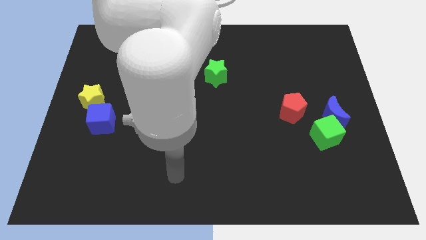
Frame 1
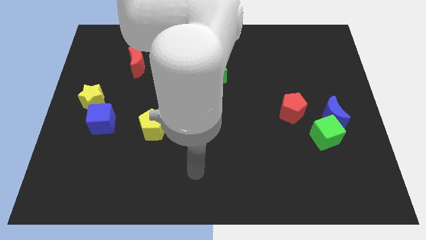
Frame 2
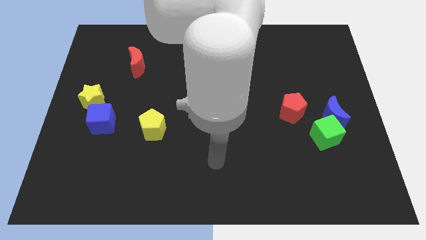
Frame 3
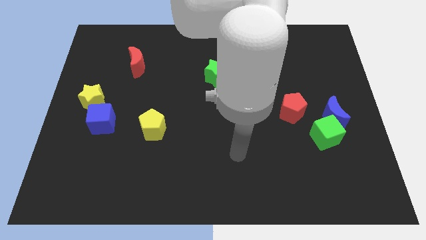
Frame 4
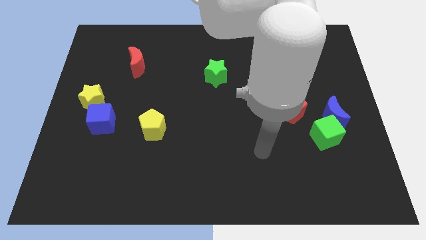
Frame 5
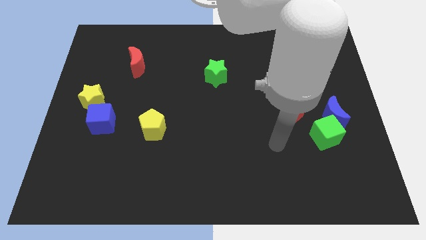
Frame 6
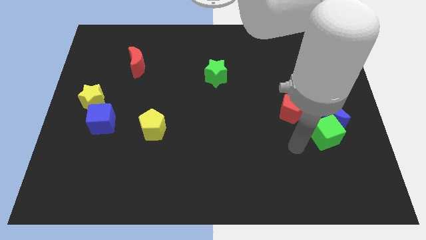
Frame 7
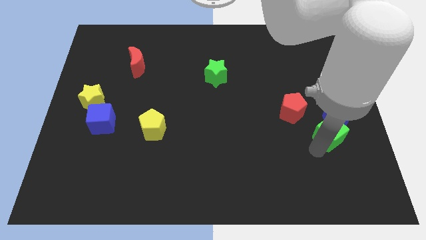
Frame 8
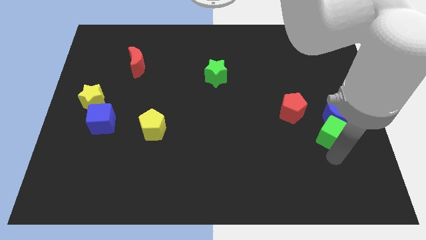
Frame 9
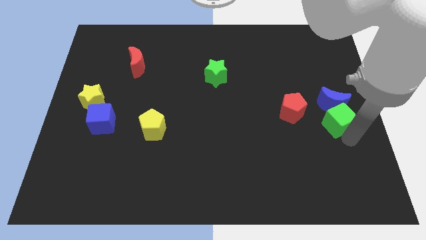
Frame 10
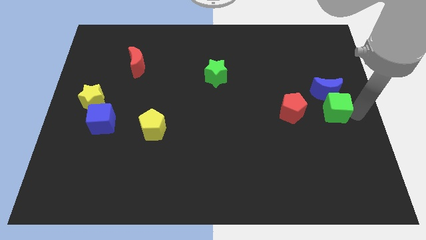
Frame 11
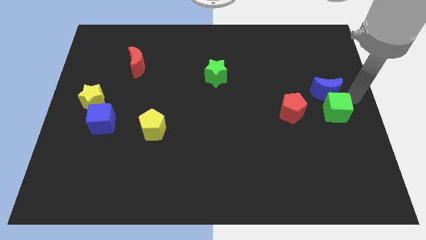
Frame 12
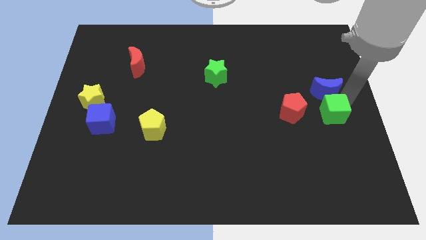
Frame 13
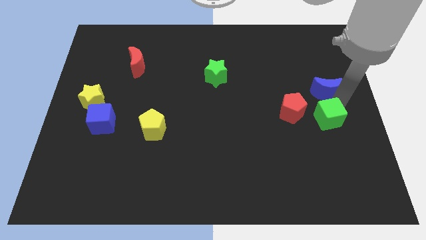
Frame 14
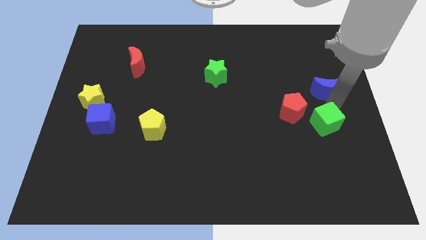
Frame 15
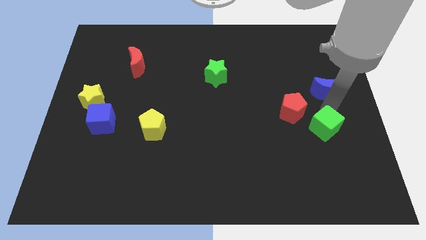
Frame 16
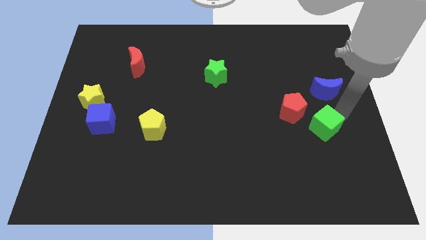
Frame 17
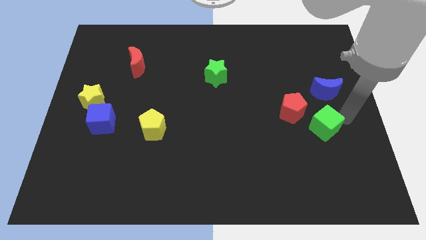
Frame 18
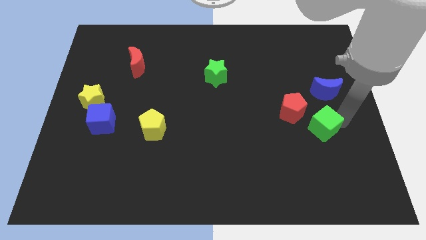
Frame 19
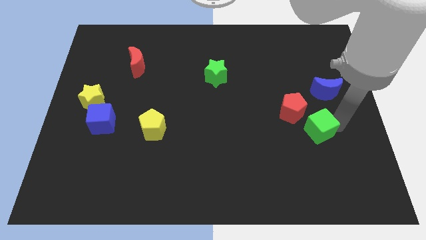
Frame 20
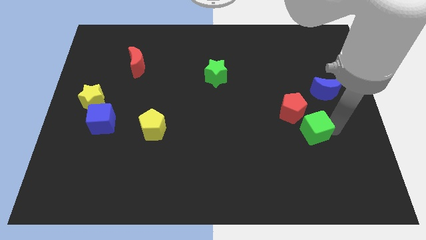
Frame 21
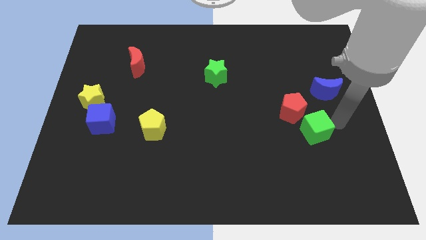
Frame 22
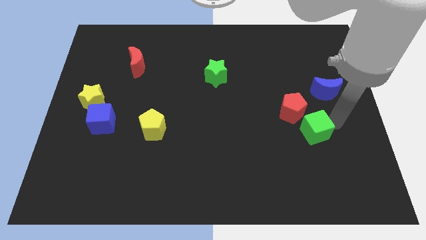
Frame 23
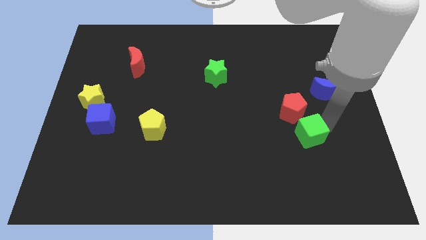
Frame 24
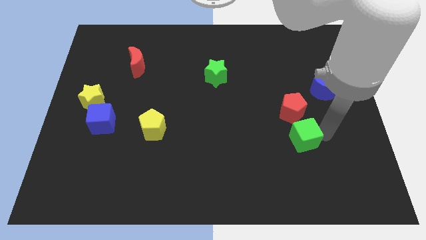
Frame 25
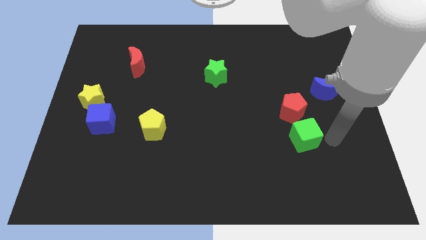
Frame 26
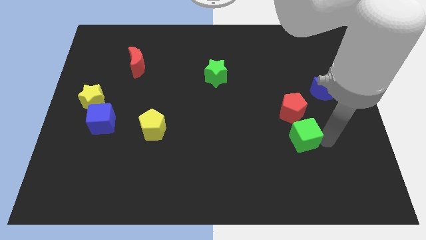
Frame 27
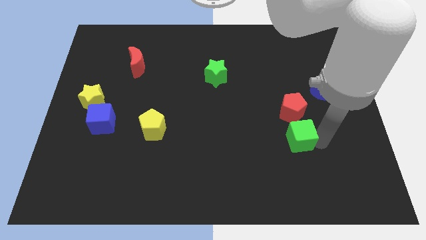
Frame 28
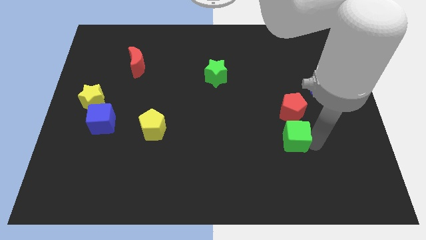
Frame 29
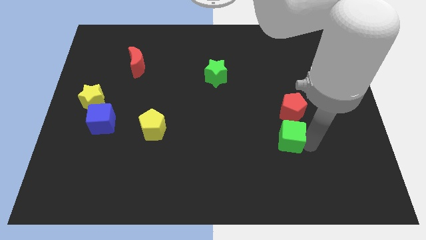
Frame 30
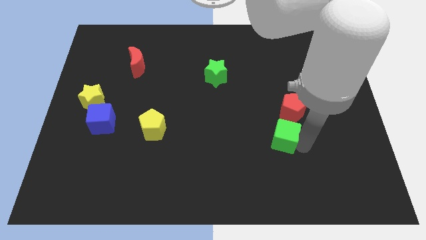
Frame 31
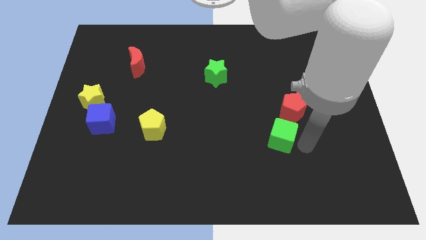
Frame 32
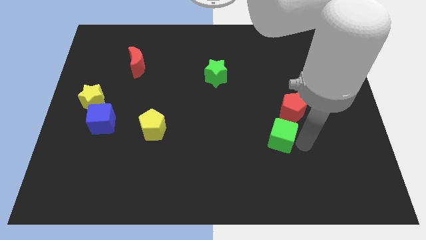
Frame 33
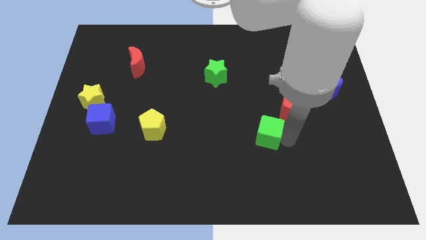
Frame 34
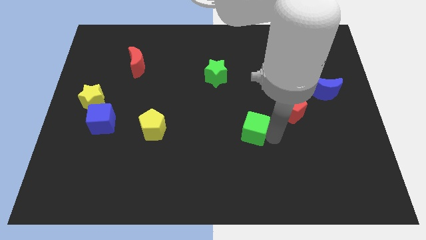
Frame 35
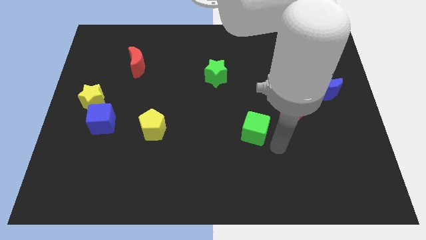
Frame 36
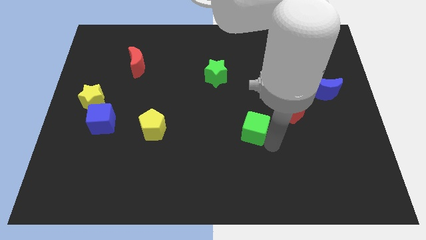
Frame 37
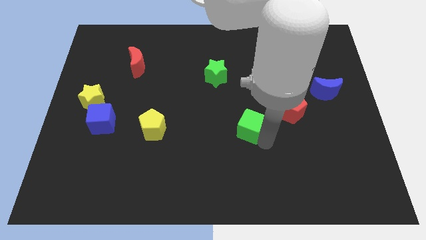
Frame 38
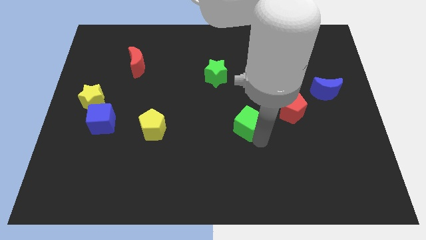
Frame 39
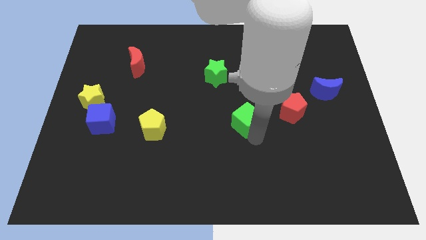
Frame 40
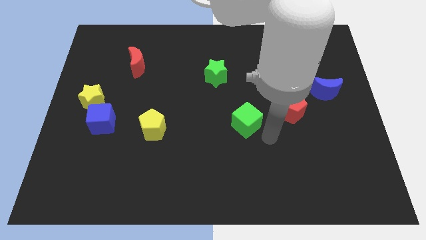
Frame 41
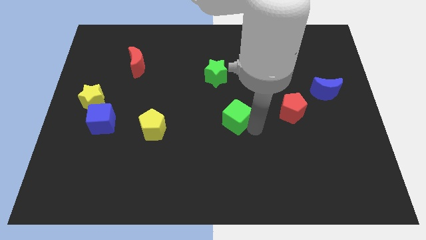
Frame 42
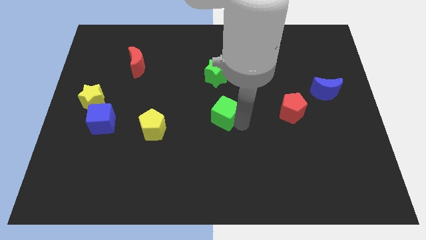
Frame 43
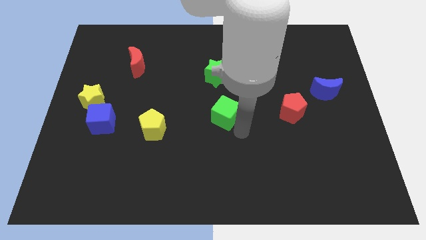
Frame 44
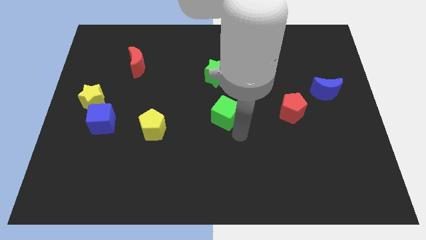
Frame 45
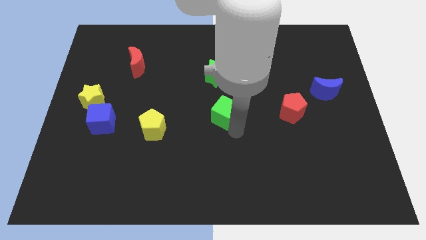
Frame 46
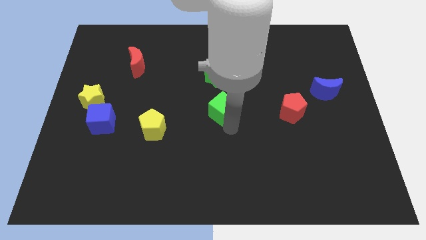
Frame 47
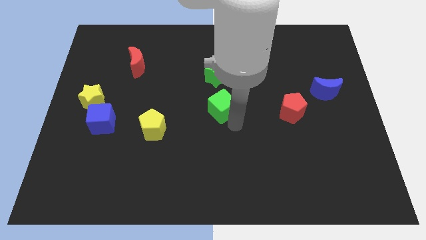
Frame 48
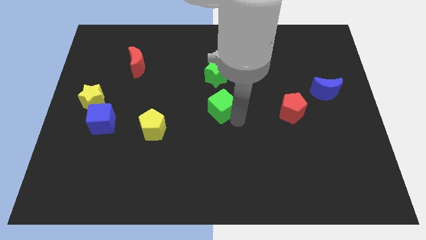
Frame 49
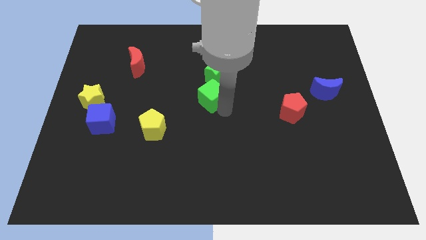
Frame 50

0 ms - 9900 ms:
move the green cube to the bottom left side of the green star

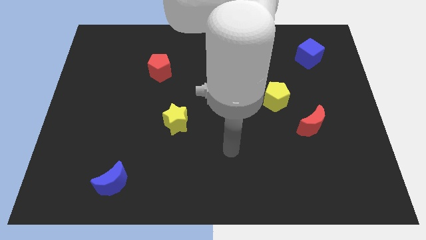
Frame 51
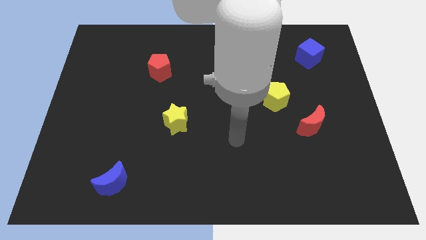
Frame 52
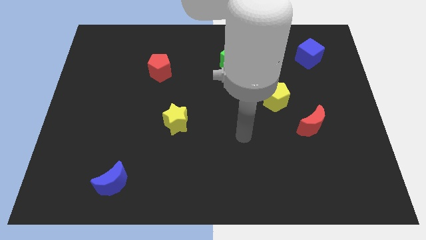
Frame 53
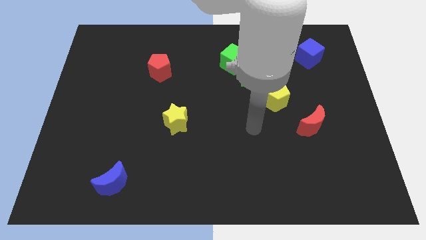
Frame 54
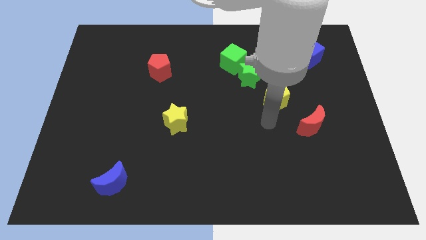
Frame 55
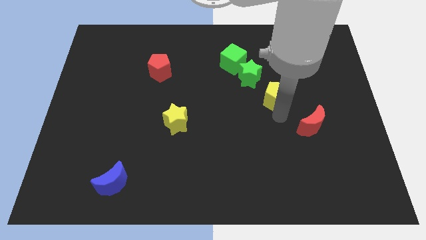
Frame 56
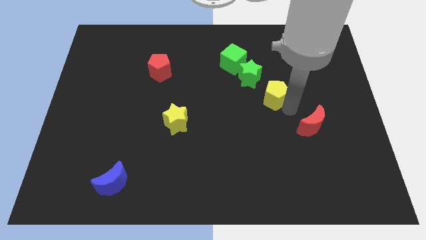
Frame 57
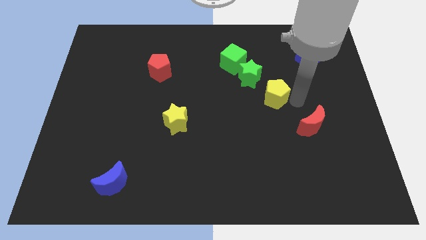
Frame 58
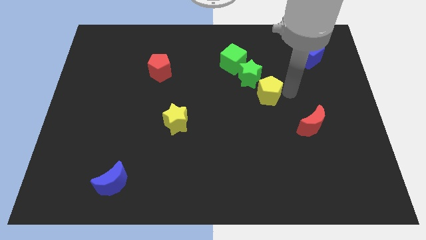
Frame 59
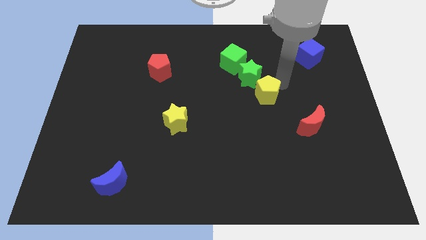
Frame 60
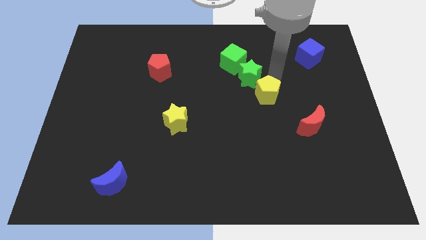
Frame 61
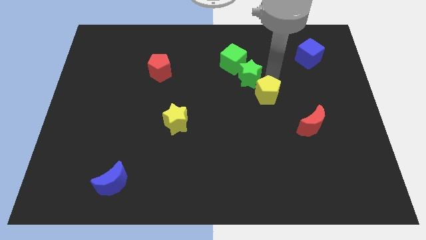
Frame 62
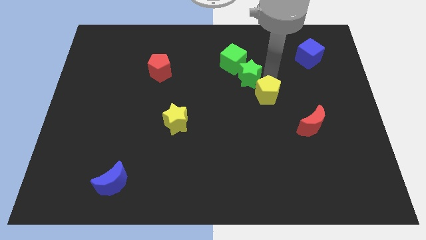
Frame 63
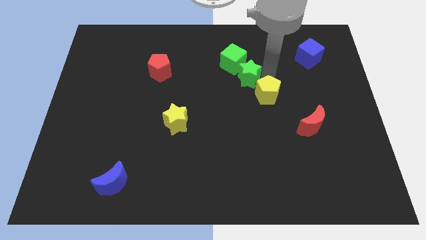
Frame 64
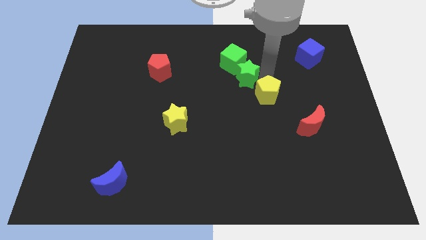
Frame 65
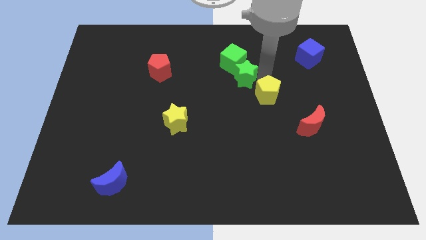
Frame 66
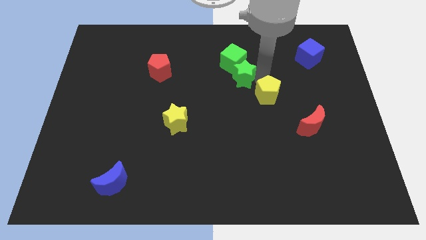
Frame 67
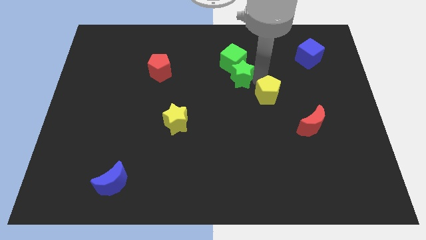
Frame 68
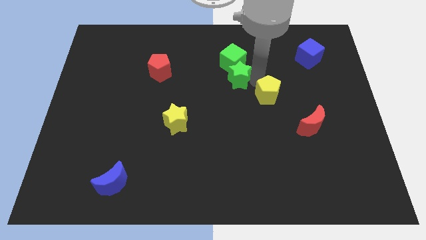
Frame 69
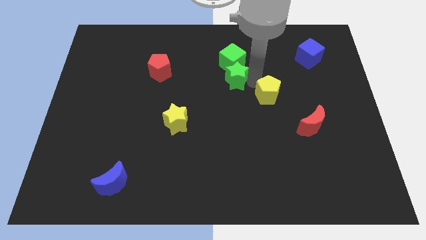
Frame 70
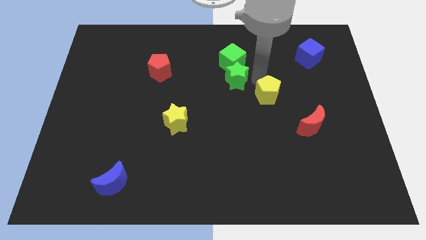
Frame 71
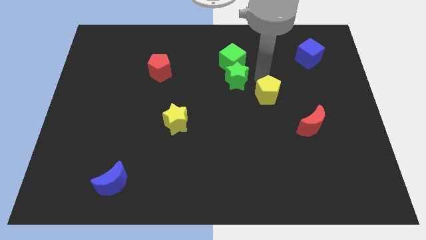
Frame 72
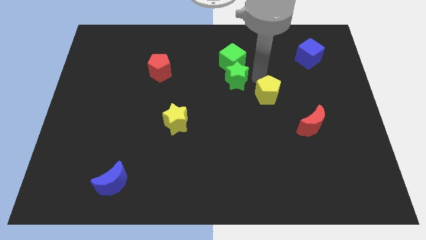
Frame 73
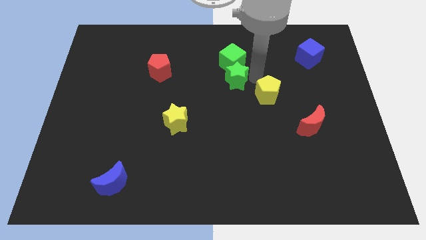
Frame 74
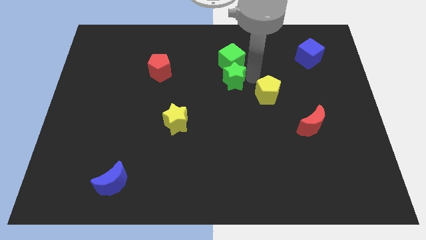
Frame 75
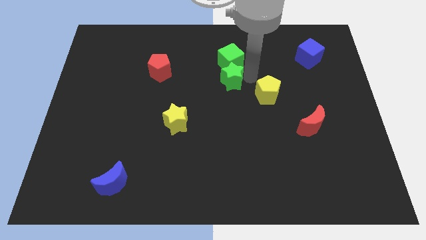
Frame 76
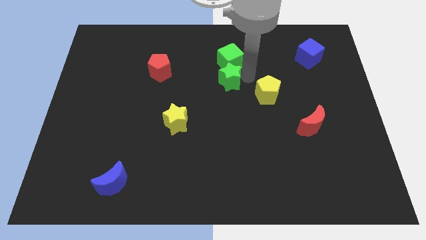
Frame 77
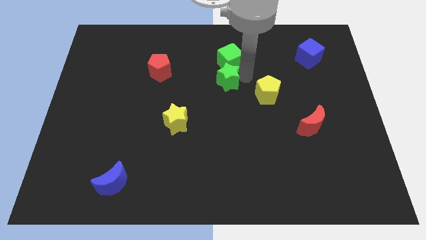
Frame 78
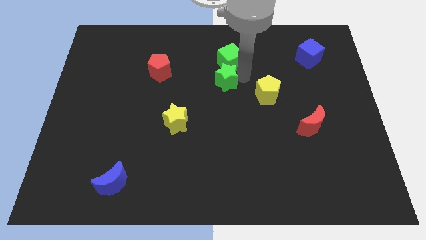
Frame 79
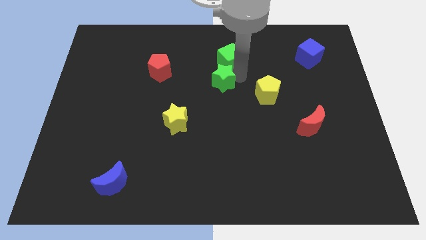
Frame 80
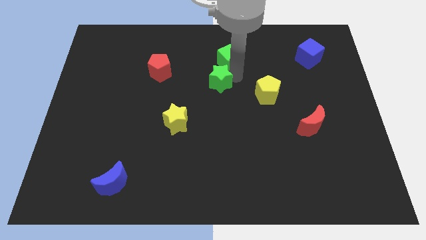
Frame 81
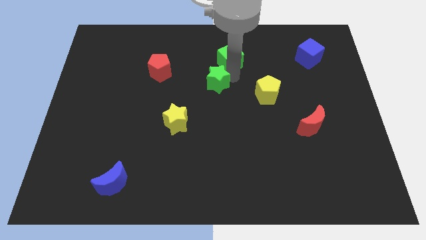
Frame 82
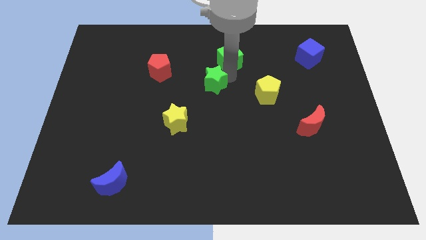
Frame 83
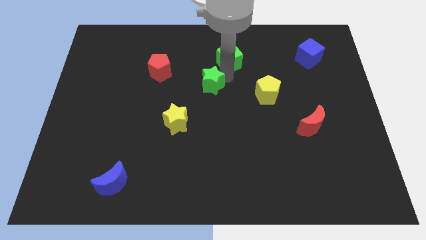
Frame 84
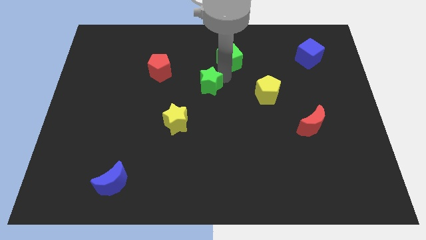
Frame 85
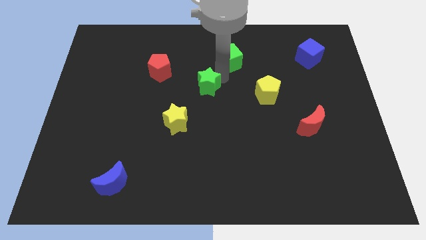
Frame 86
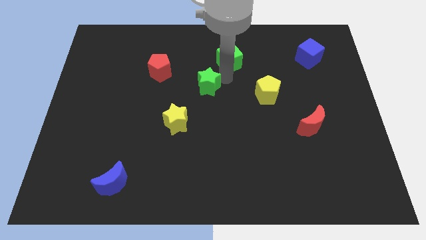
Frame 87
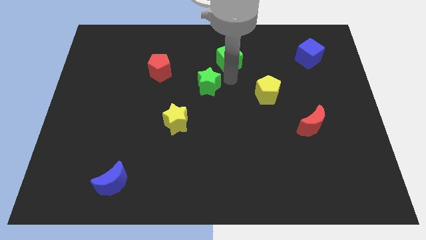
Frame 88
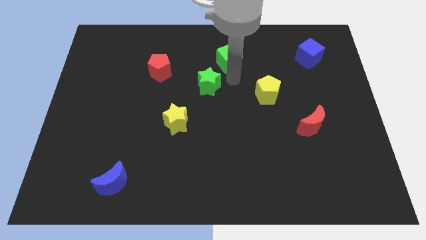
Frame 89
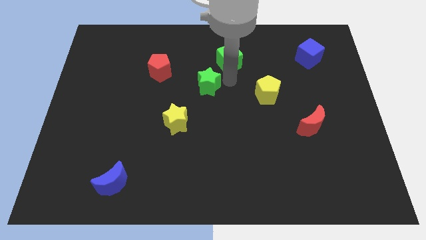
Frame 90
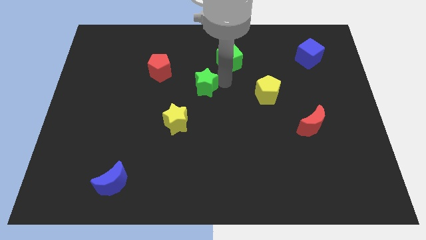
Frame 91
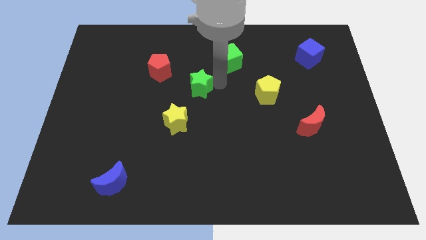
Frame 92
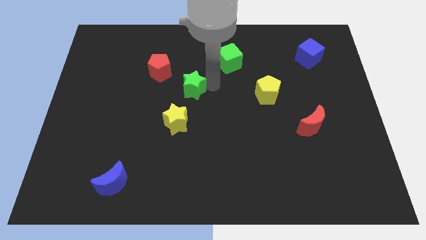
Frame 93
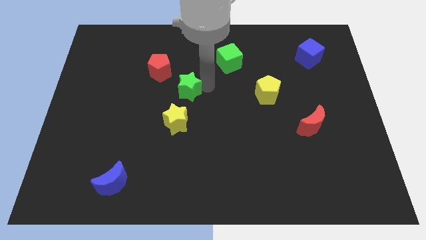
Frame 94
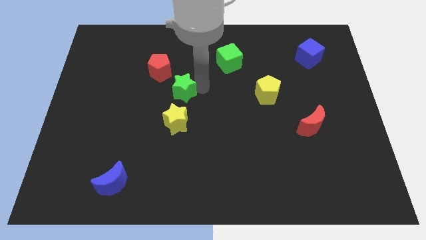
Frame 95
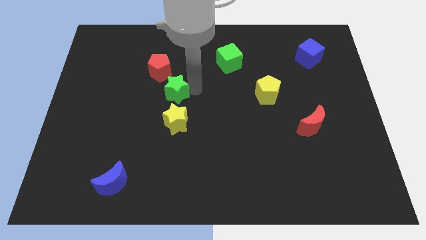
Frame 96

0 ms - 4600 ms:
push the green star to the bottom side of the red pentagon
